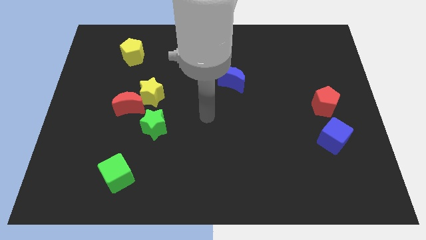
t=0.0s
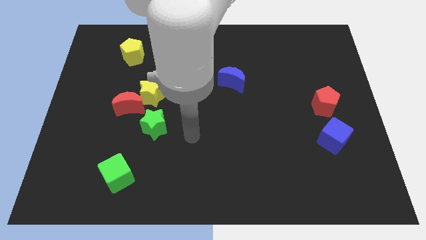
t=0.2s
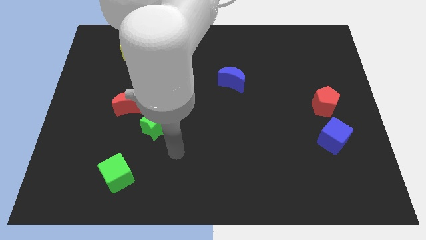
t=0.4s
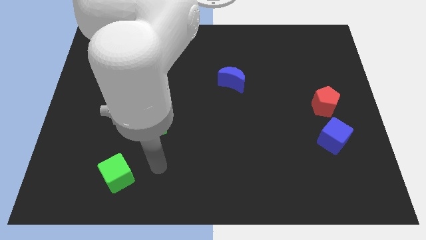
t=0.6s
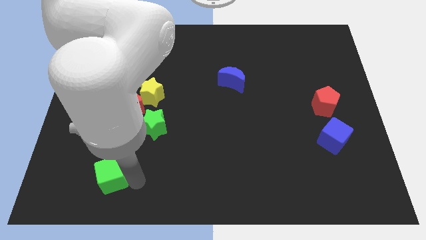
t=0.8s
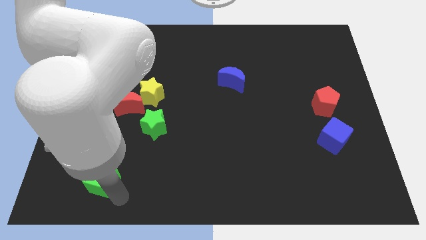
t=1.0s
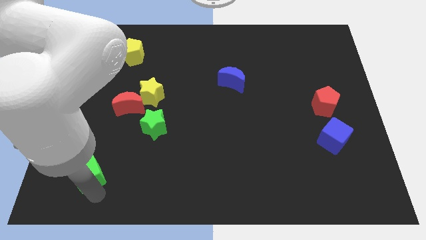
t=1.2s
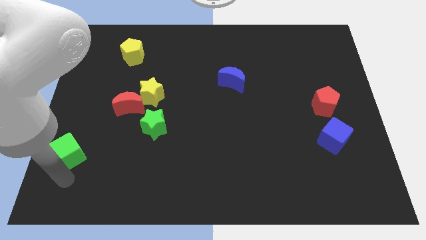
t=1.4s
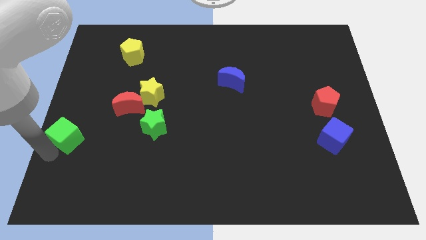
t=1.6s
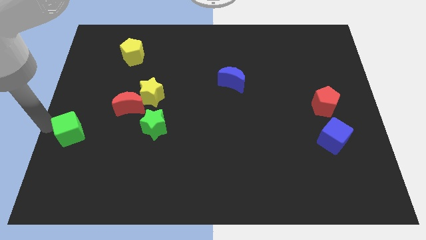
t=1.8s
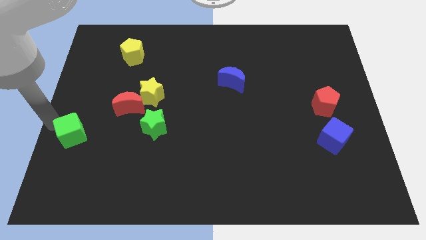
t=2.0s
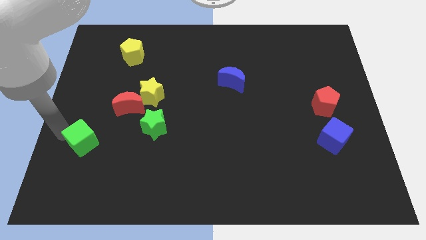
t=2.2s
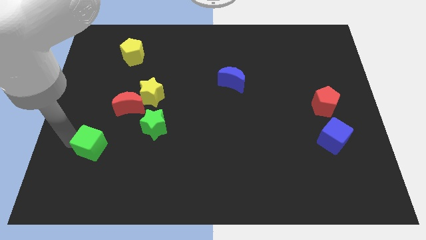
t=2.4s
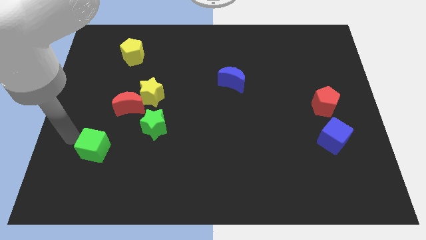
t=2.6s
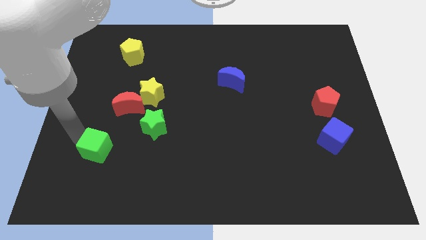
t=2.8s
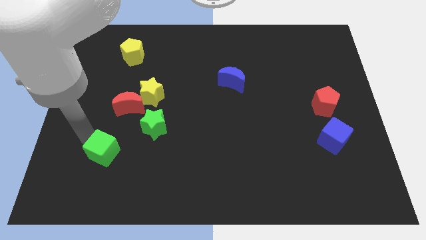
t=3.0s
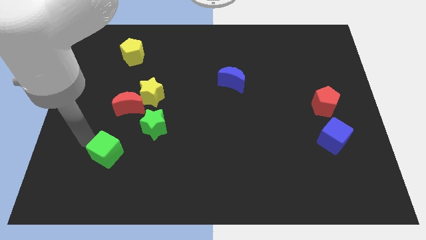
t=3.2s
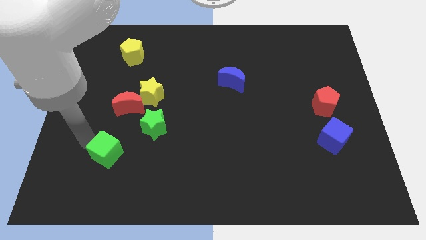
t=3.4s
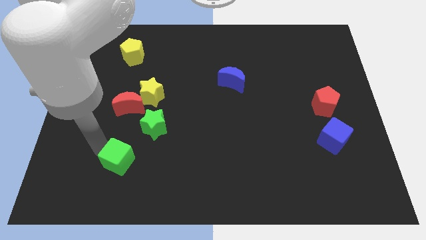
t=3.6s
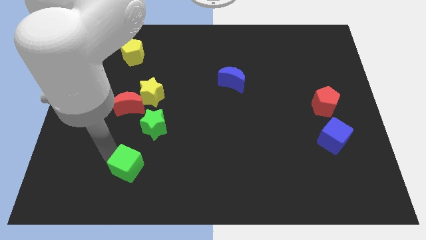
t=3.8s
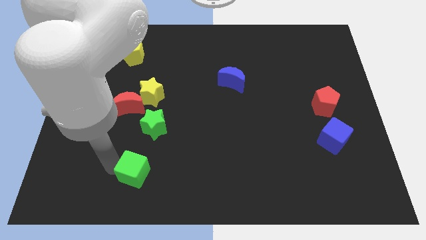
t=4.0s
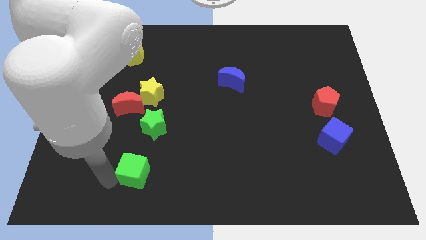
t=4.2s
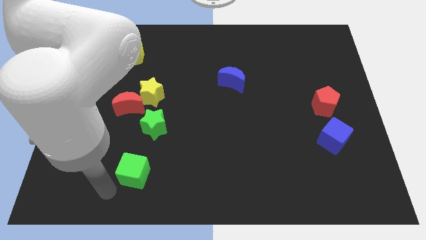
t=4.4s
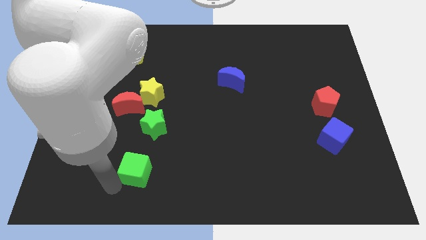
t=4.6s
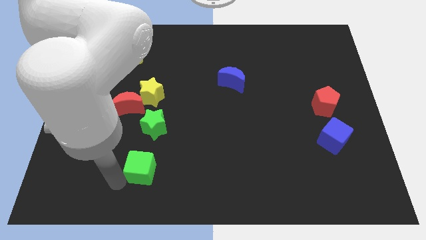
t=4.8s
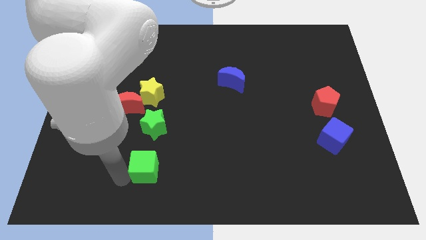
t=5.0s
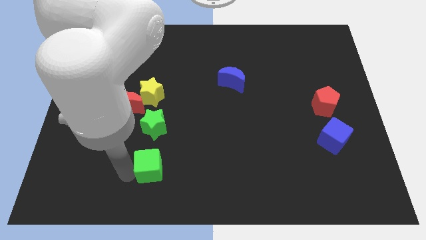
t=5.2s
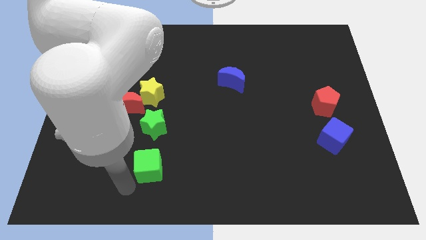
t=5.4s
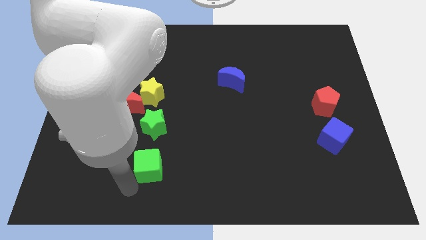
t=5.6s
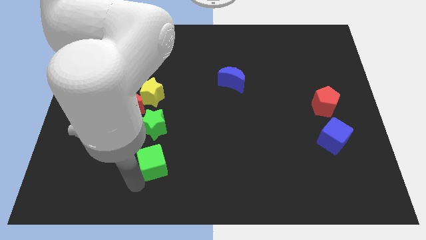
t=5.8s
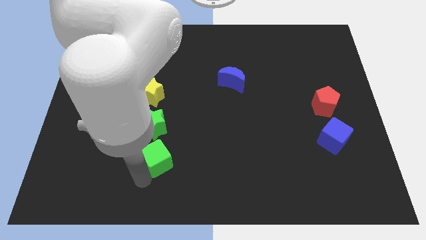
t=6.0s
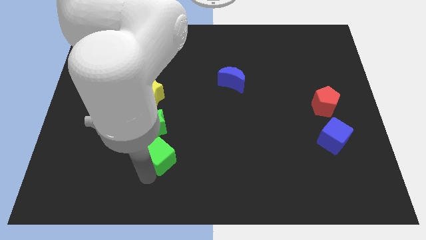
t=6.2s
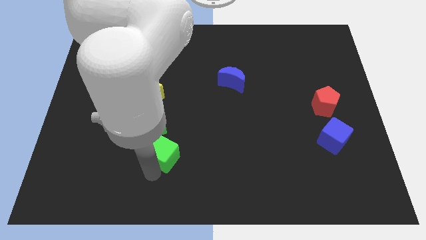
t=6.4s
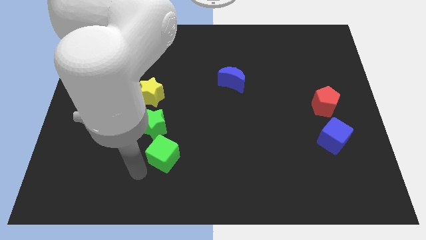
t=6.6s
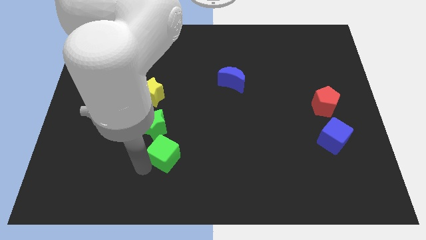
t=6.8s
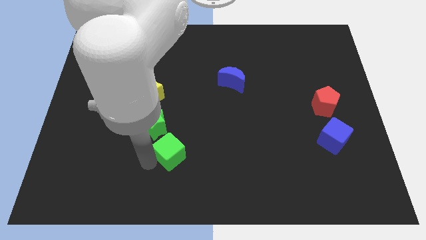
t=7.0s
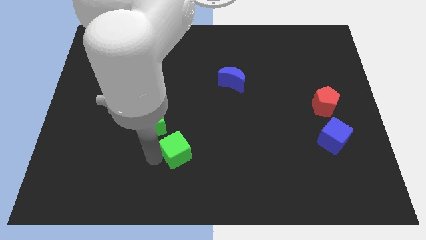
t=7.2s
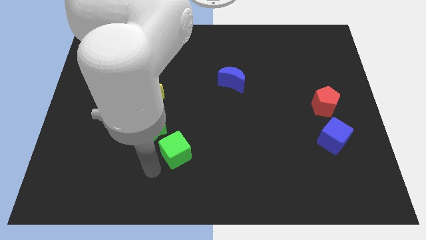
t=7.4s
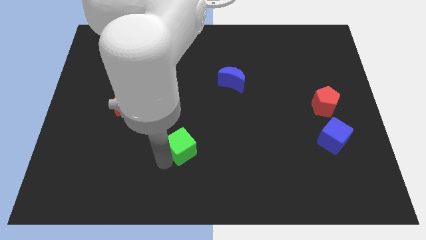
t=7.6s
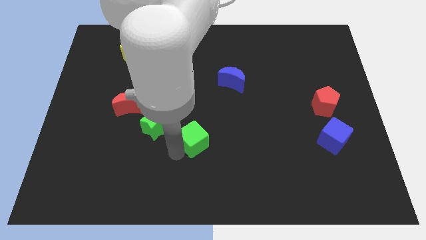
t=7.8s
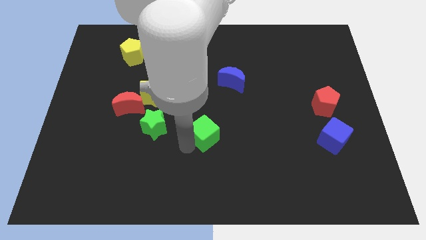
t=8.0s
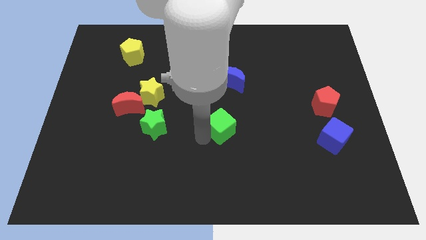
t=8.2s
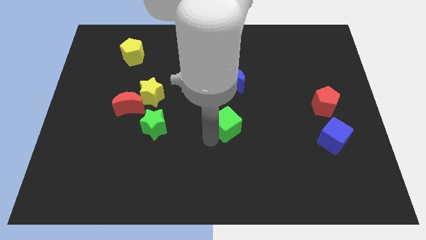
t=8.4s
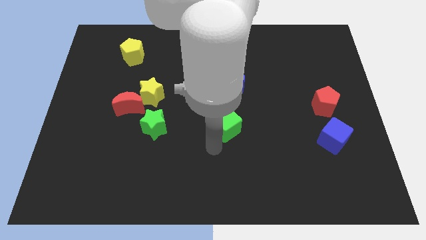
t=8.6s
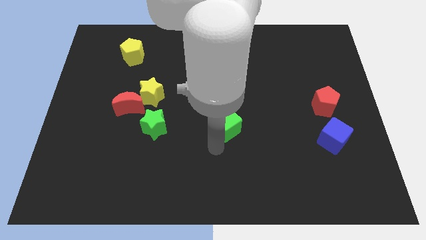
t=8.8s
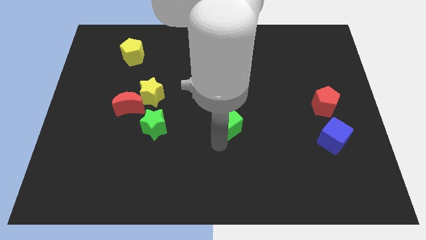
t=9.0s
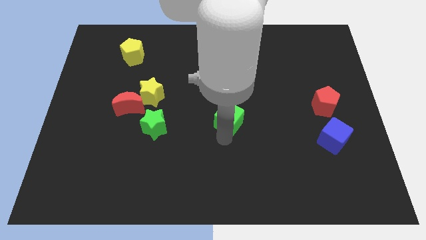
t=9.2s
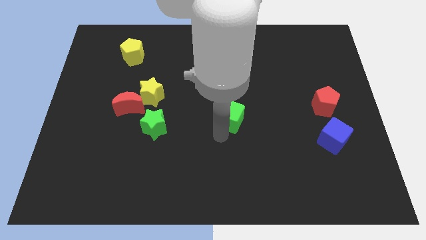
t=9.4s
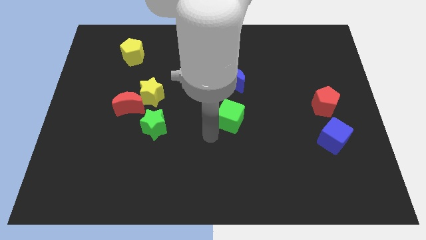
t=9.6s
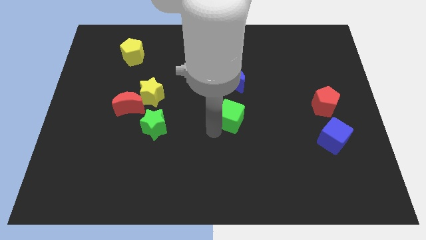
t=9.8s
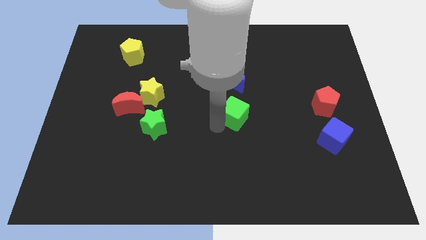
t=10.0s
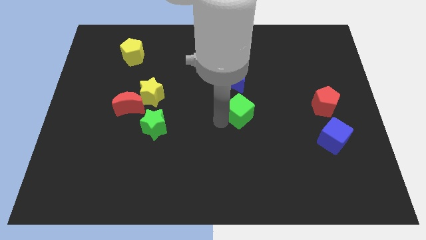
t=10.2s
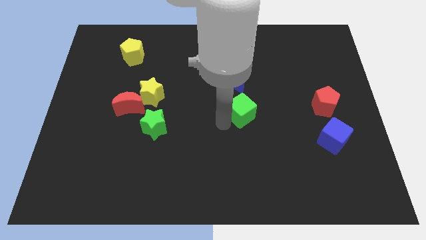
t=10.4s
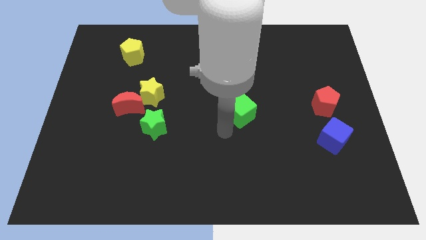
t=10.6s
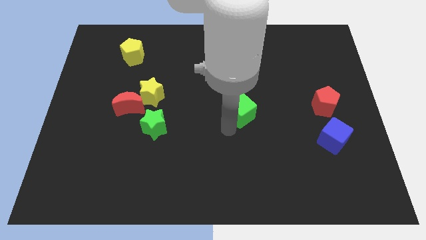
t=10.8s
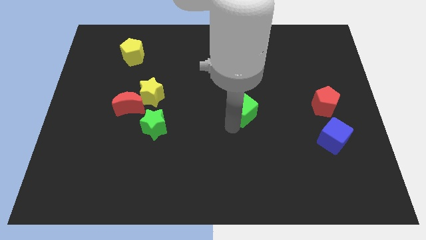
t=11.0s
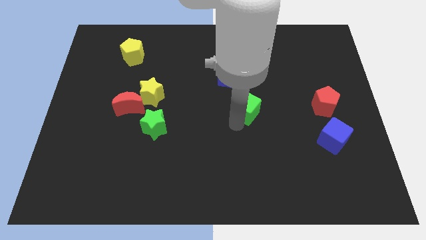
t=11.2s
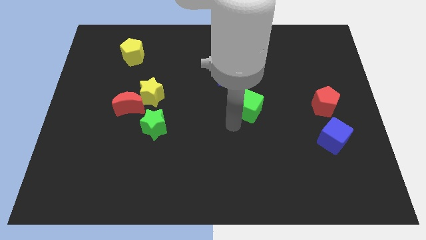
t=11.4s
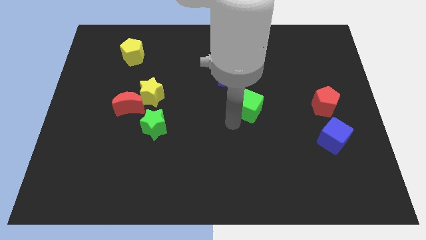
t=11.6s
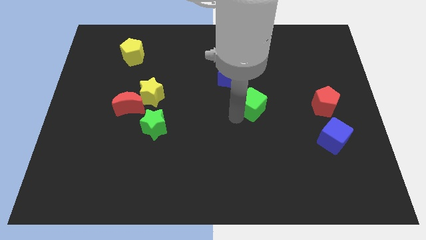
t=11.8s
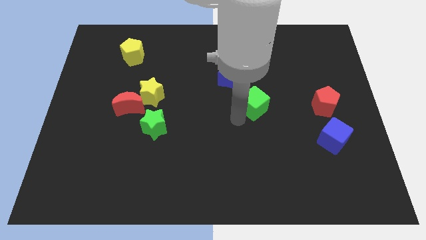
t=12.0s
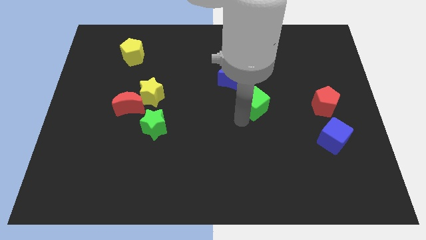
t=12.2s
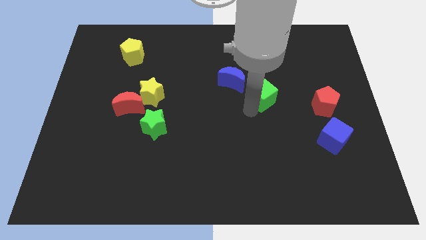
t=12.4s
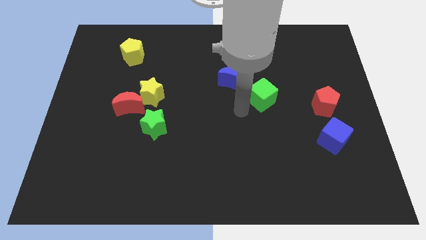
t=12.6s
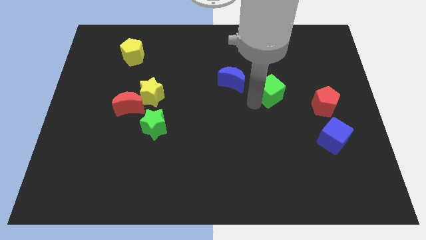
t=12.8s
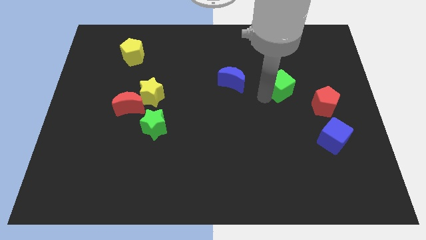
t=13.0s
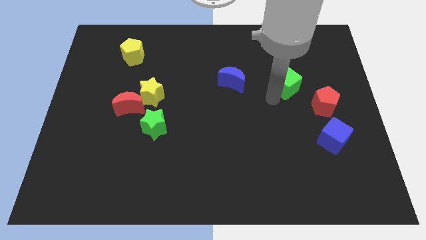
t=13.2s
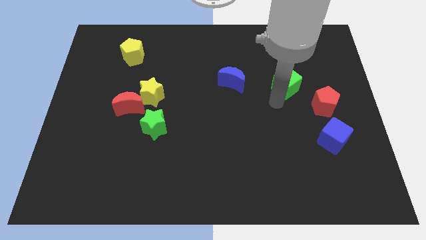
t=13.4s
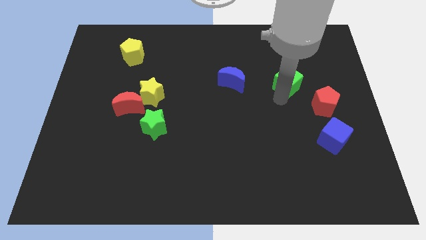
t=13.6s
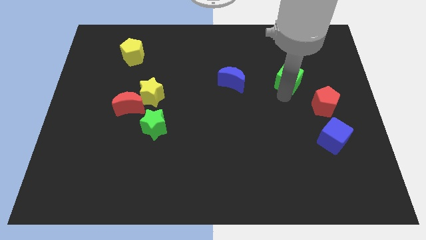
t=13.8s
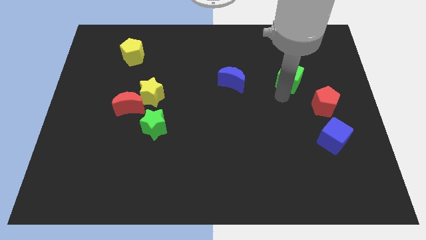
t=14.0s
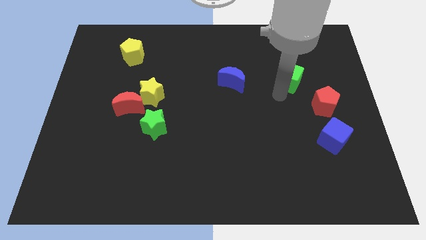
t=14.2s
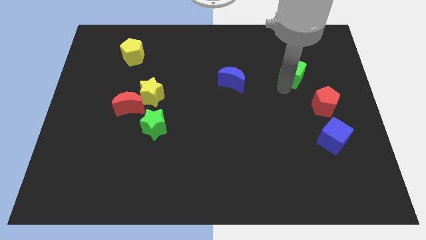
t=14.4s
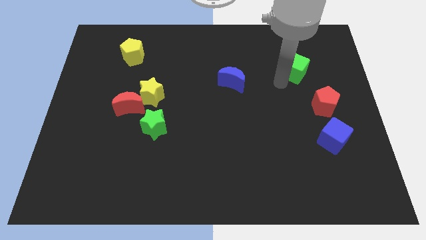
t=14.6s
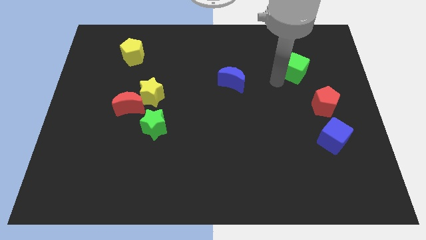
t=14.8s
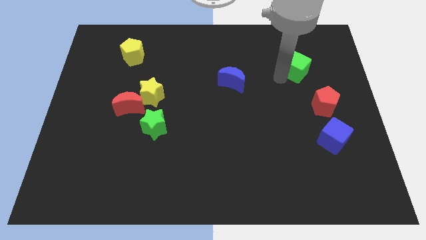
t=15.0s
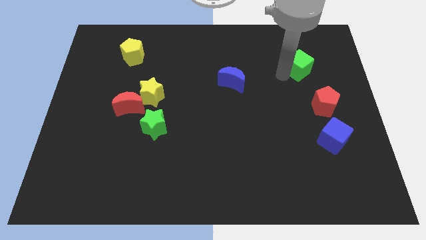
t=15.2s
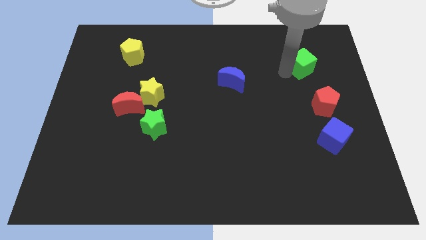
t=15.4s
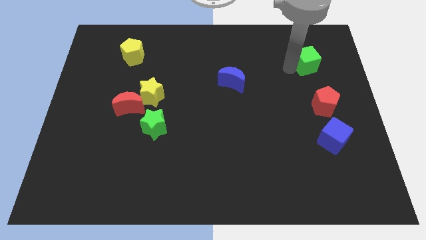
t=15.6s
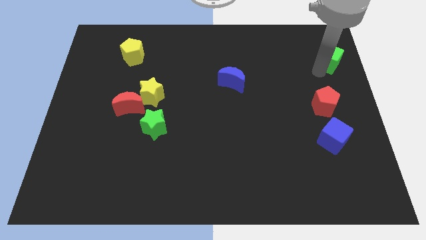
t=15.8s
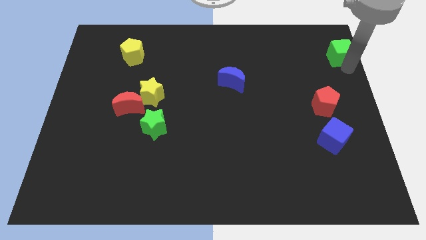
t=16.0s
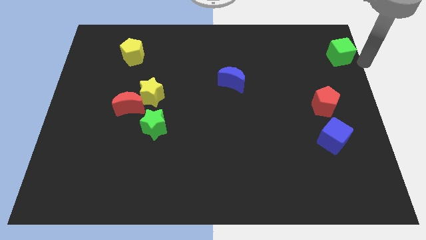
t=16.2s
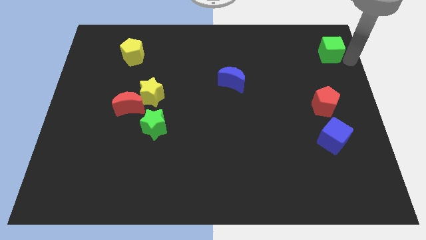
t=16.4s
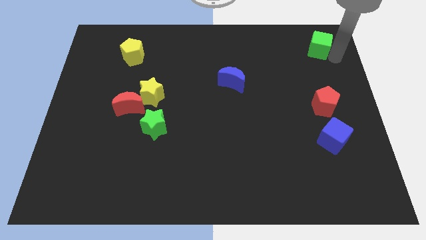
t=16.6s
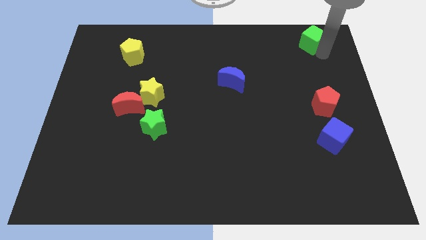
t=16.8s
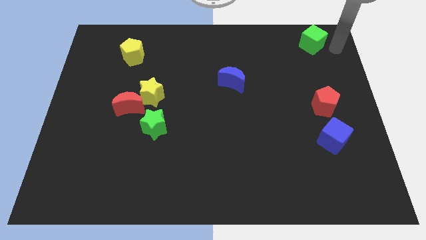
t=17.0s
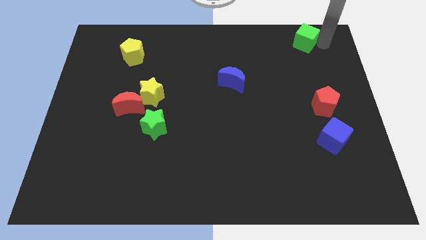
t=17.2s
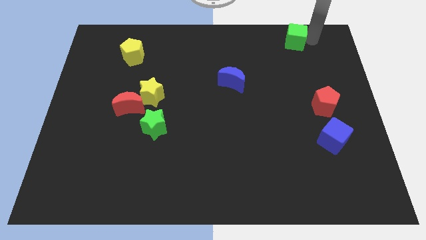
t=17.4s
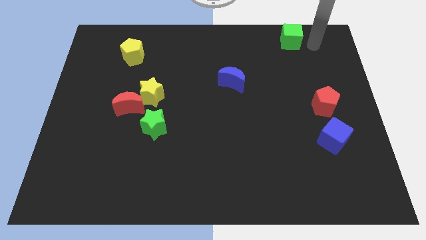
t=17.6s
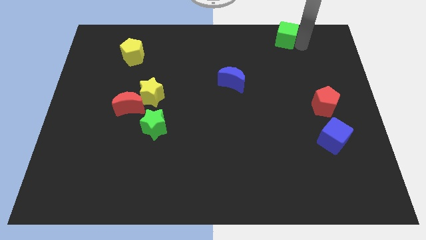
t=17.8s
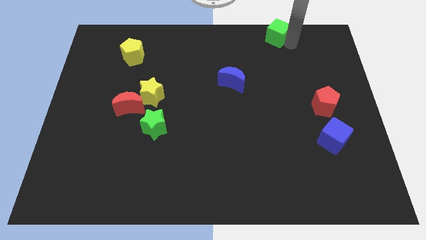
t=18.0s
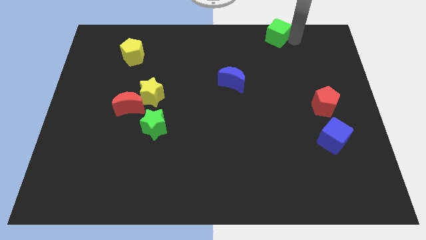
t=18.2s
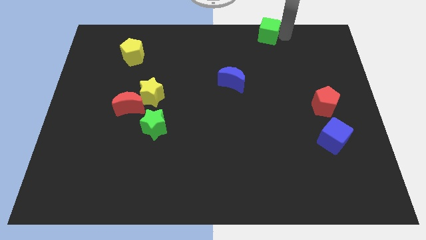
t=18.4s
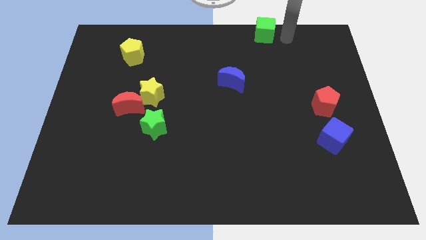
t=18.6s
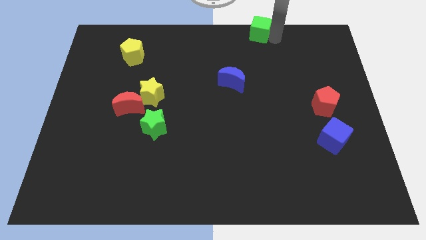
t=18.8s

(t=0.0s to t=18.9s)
push the green cube to the top side
